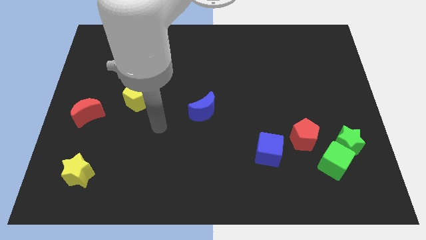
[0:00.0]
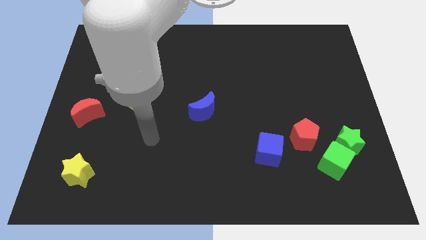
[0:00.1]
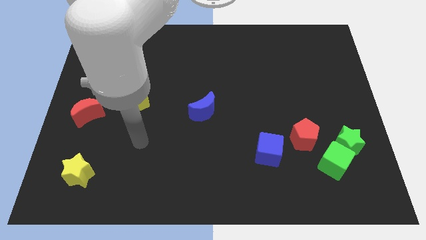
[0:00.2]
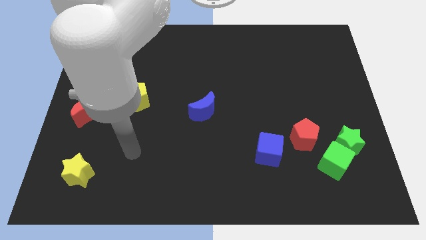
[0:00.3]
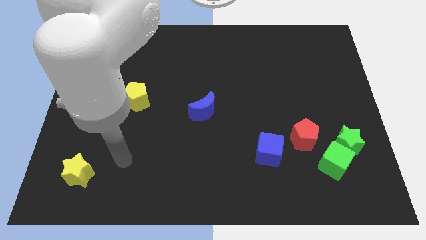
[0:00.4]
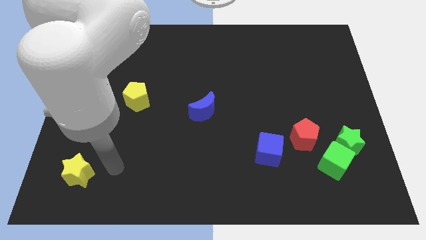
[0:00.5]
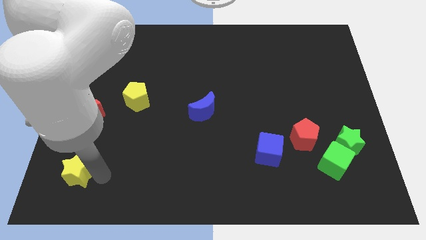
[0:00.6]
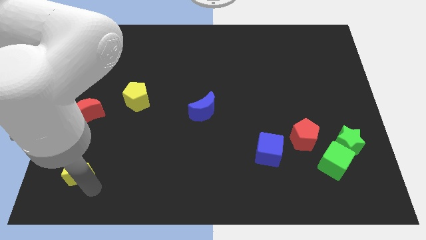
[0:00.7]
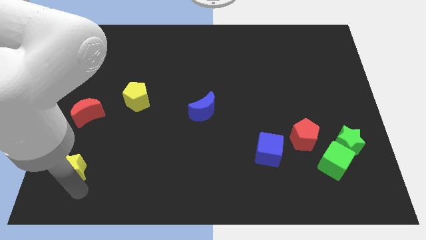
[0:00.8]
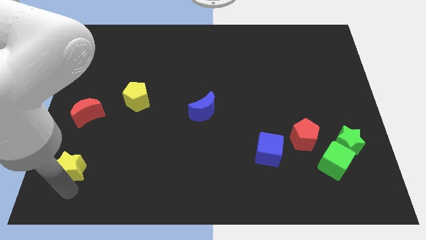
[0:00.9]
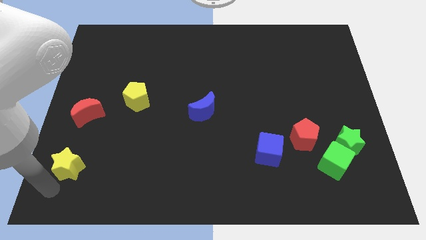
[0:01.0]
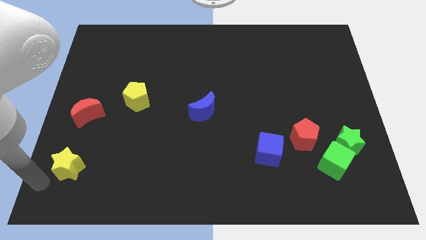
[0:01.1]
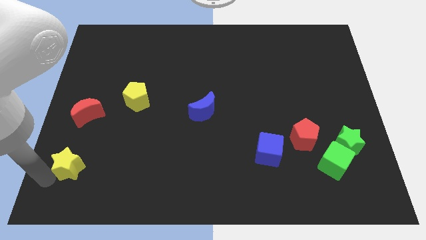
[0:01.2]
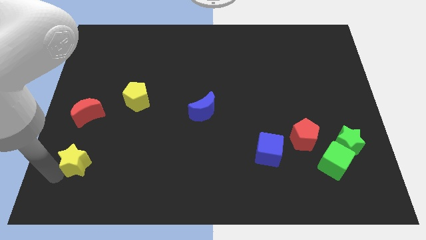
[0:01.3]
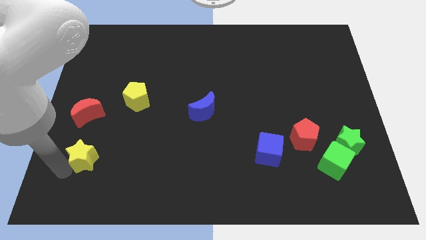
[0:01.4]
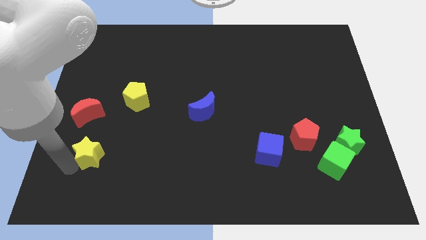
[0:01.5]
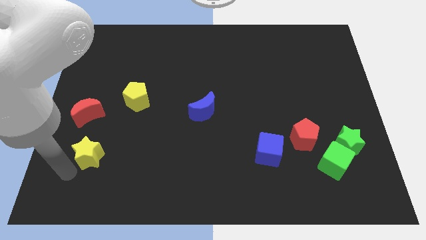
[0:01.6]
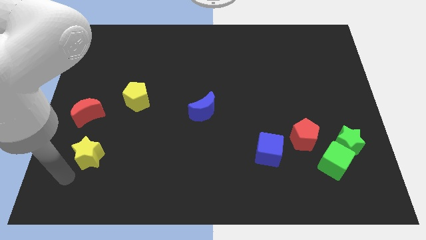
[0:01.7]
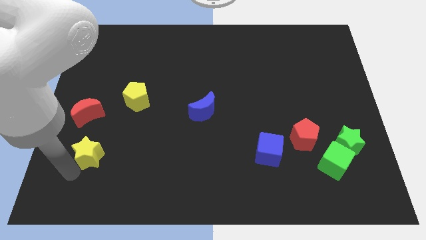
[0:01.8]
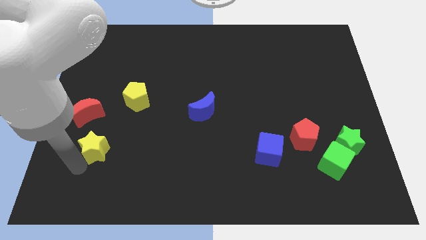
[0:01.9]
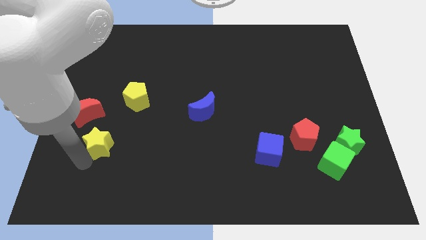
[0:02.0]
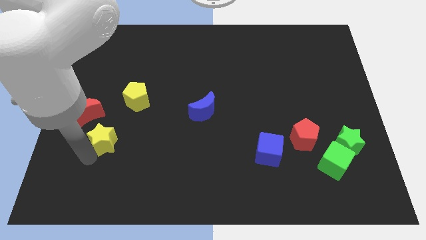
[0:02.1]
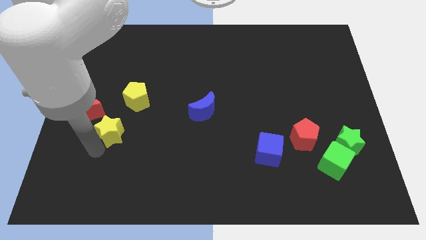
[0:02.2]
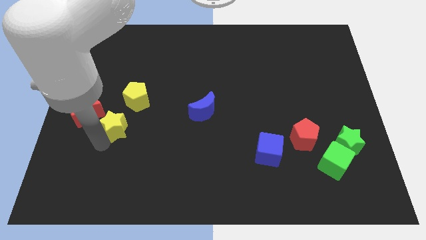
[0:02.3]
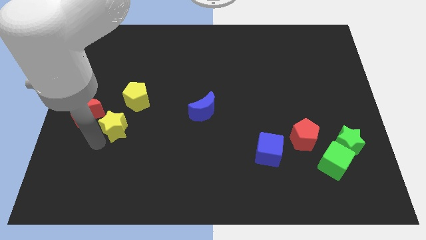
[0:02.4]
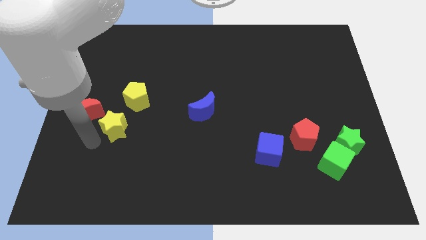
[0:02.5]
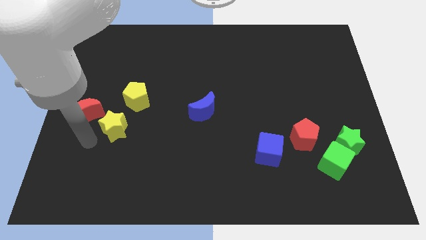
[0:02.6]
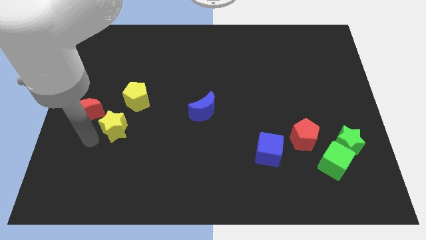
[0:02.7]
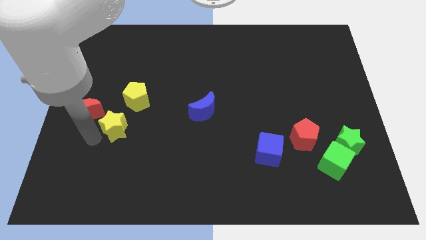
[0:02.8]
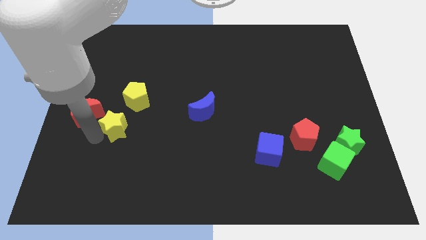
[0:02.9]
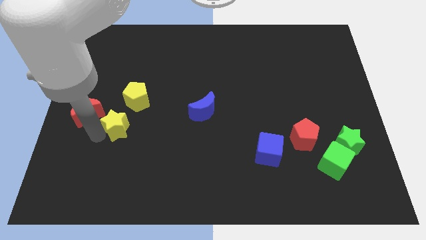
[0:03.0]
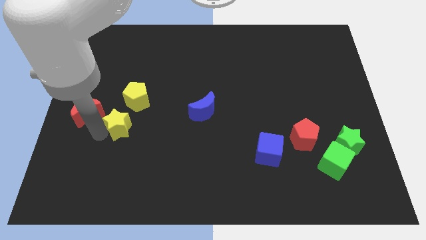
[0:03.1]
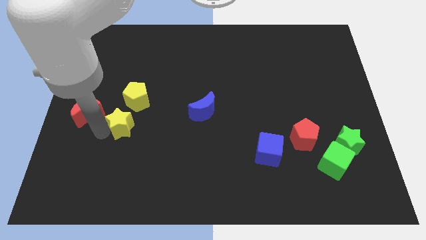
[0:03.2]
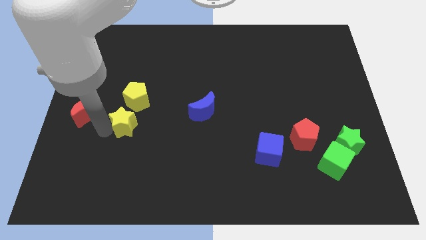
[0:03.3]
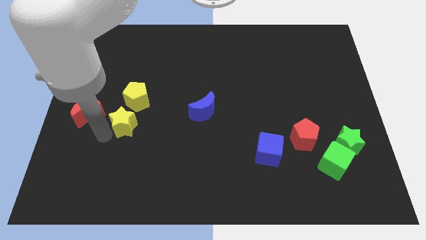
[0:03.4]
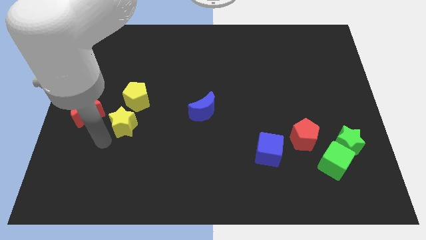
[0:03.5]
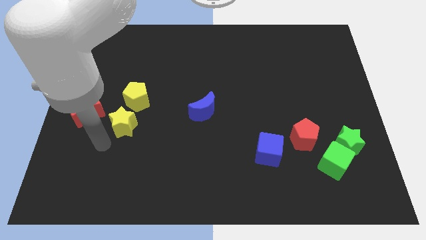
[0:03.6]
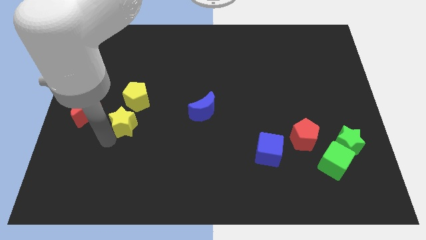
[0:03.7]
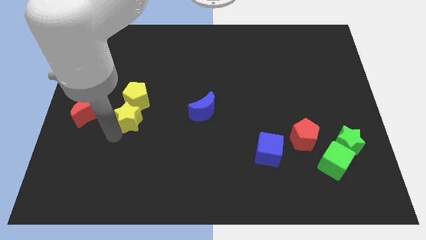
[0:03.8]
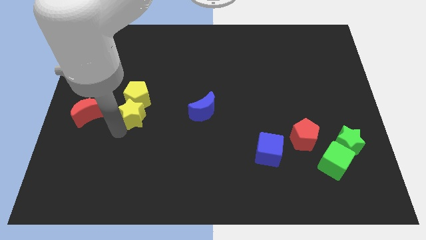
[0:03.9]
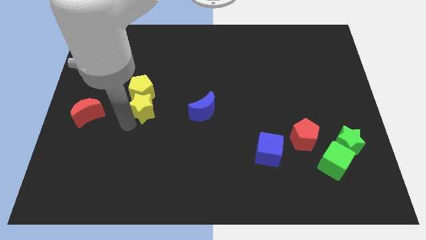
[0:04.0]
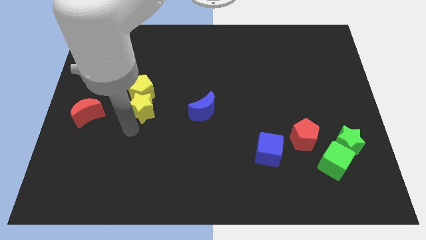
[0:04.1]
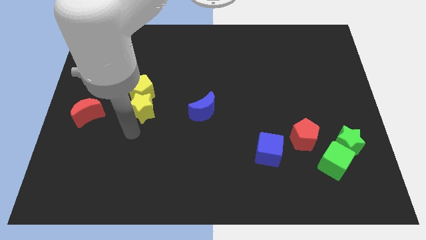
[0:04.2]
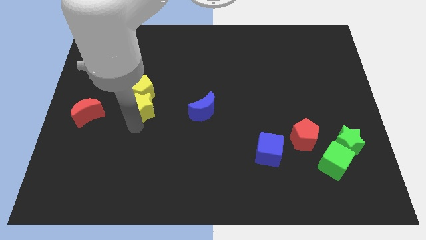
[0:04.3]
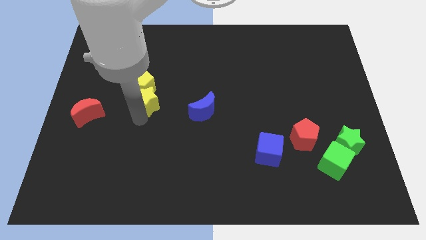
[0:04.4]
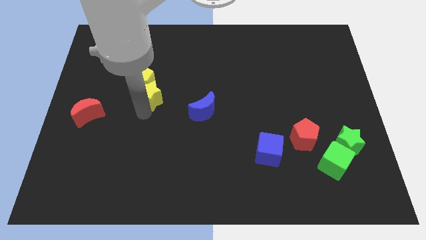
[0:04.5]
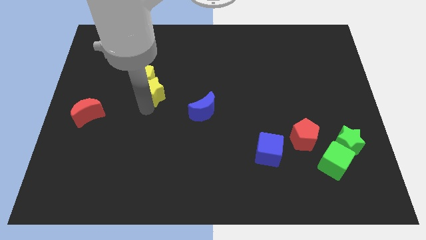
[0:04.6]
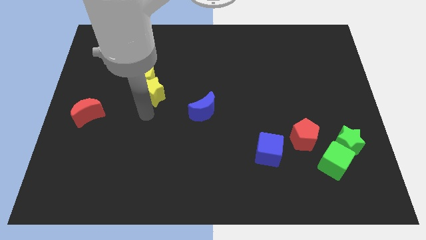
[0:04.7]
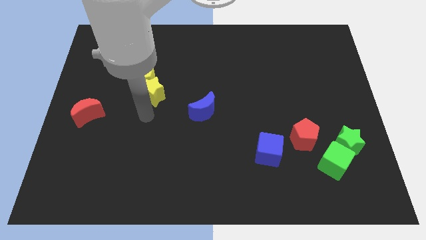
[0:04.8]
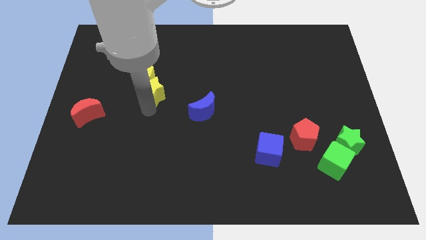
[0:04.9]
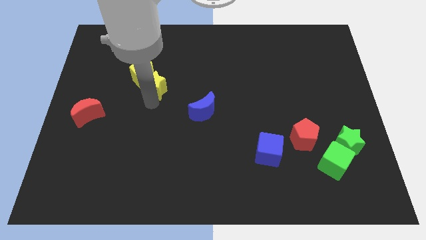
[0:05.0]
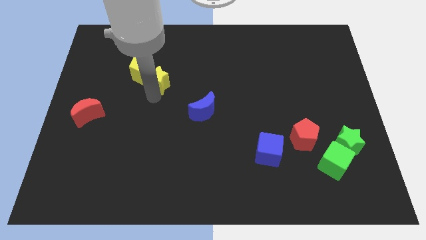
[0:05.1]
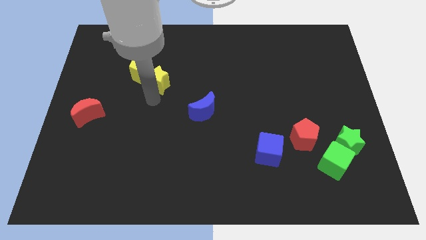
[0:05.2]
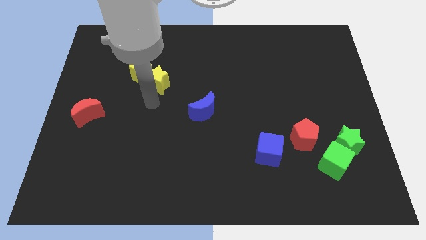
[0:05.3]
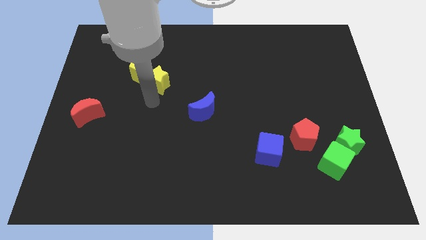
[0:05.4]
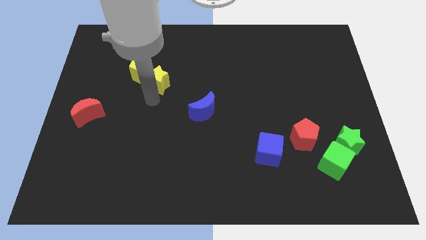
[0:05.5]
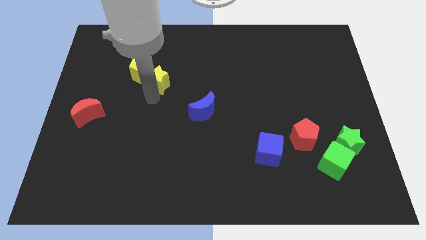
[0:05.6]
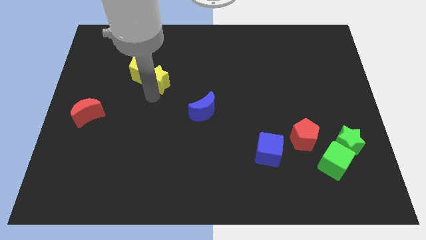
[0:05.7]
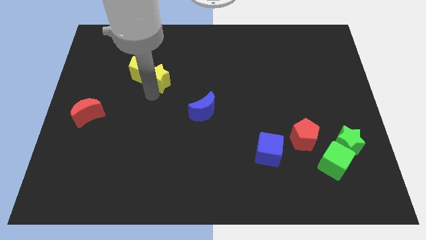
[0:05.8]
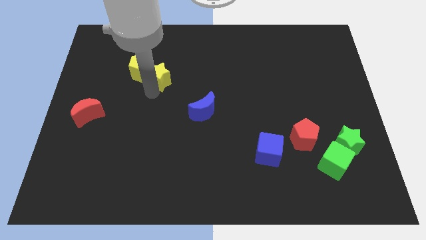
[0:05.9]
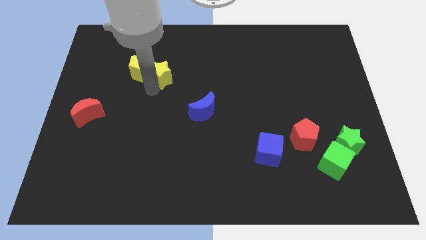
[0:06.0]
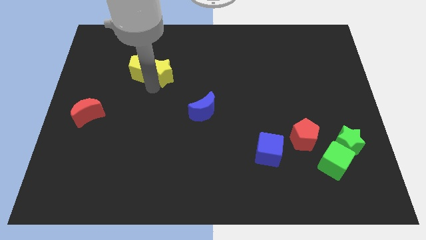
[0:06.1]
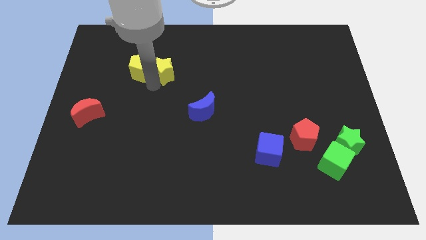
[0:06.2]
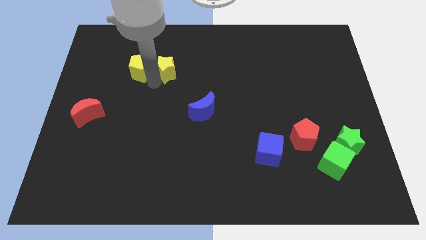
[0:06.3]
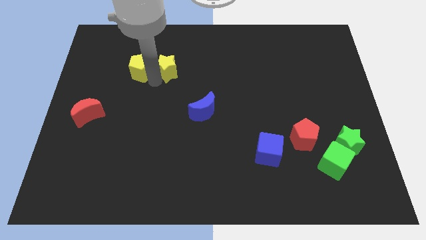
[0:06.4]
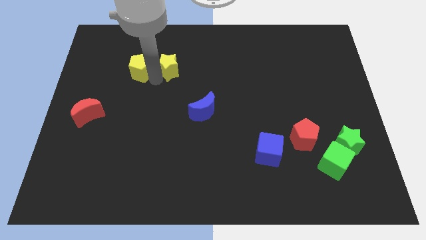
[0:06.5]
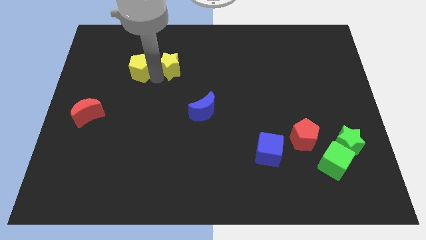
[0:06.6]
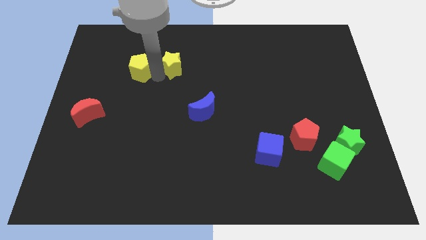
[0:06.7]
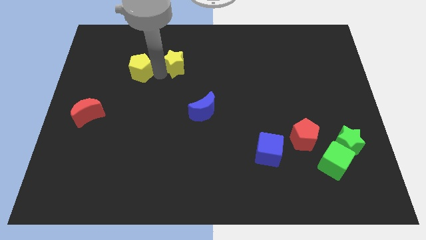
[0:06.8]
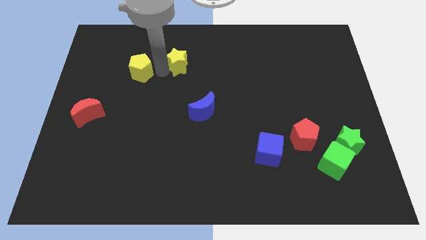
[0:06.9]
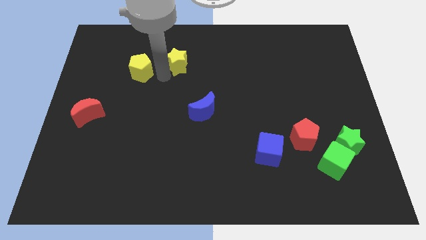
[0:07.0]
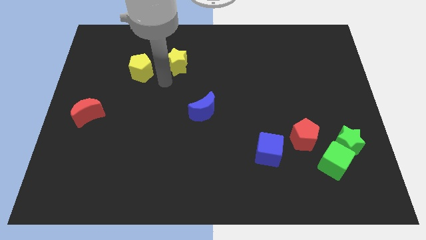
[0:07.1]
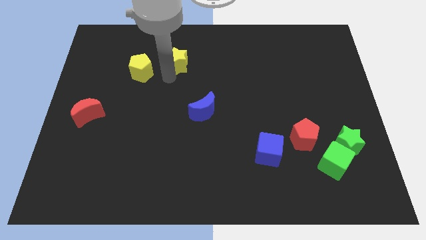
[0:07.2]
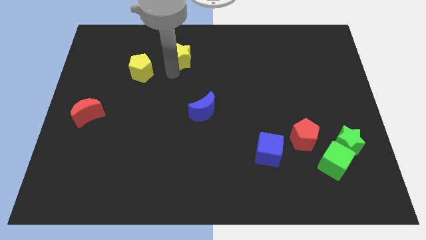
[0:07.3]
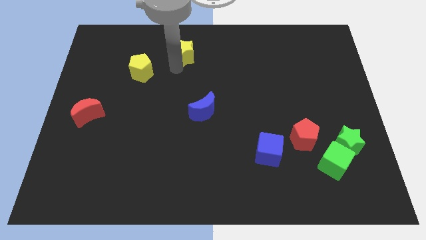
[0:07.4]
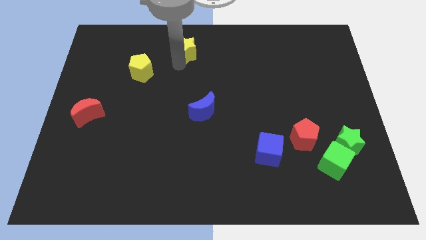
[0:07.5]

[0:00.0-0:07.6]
push the yellow star to the top side
